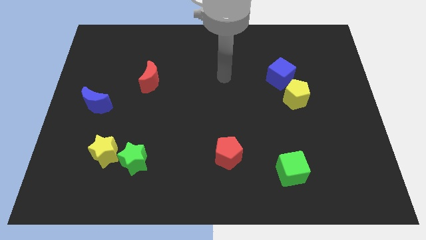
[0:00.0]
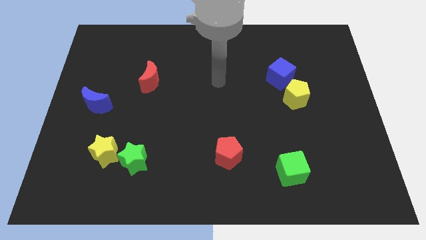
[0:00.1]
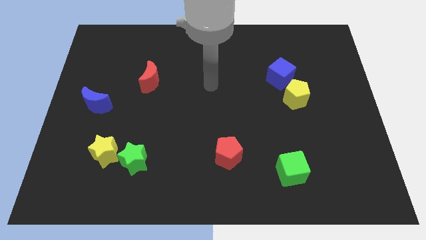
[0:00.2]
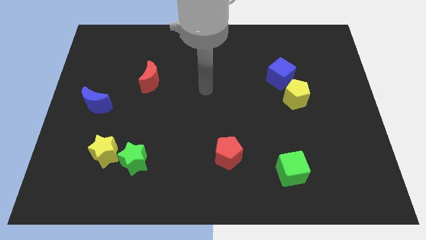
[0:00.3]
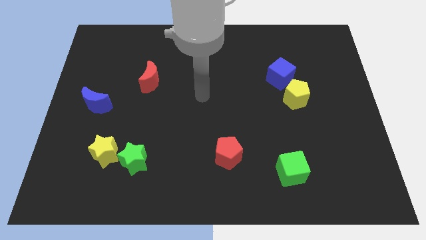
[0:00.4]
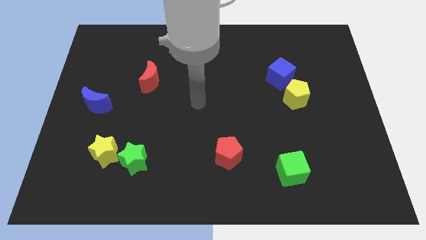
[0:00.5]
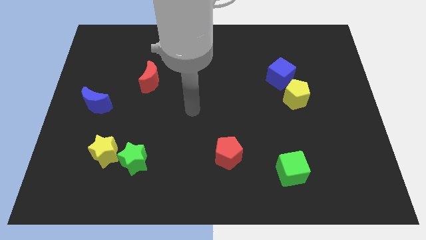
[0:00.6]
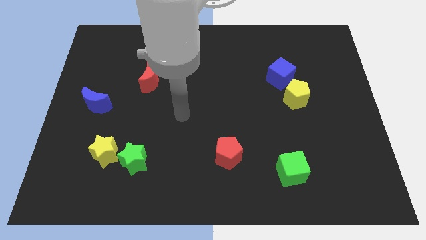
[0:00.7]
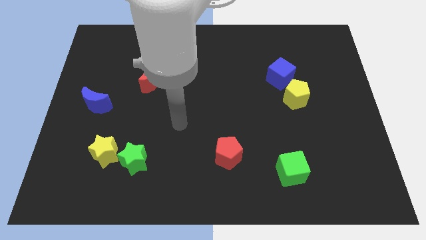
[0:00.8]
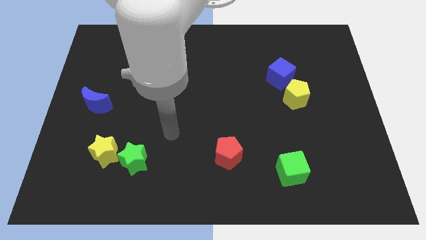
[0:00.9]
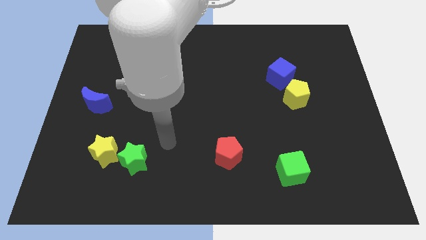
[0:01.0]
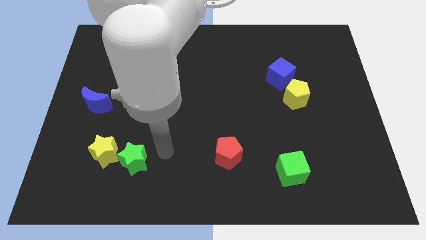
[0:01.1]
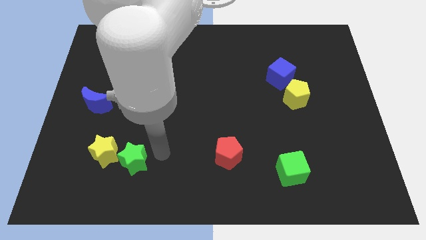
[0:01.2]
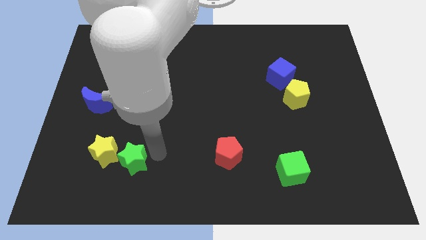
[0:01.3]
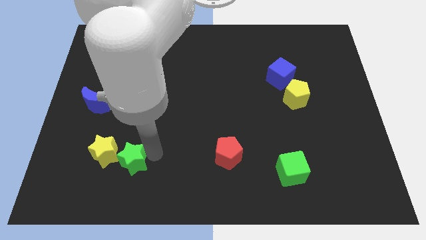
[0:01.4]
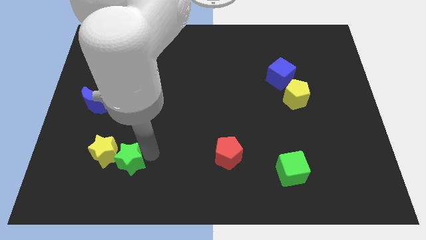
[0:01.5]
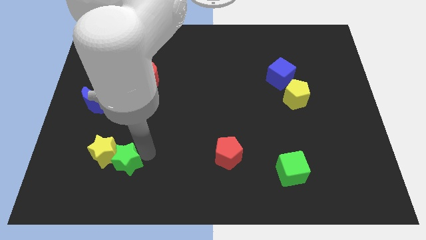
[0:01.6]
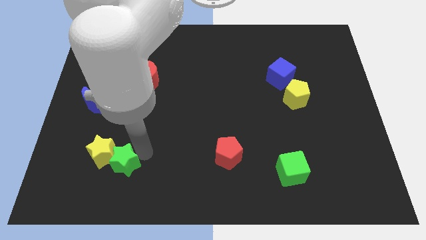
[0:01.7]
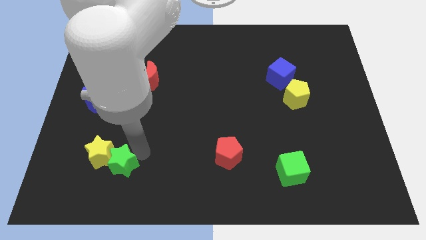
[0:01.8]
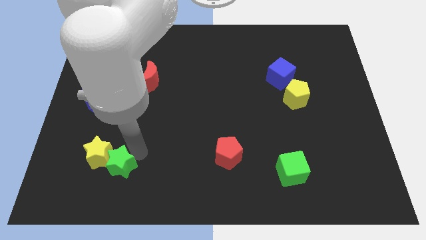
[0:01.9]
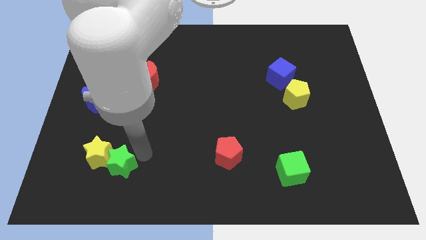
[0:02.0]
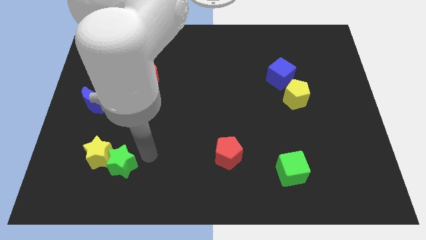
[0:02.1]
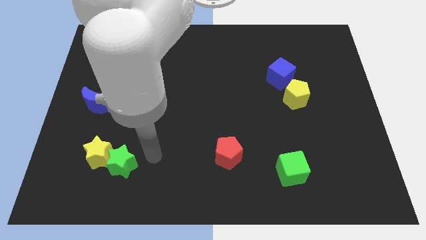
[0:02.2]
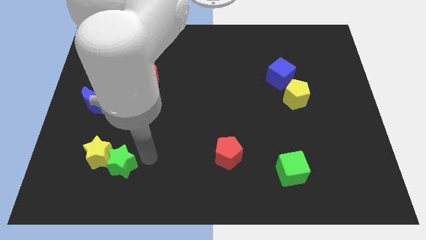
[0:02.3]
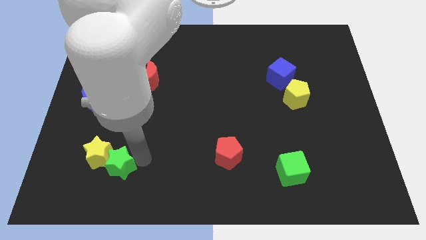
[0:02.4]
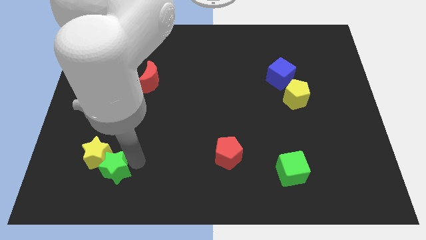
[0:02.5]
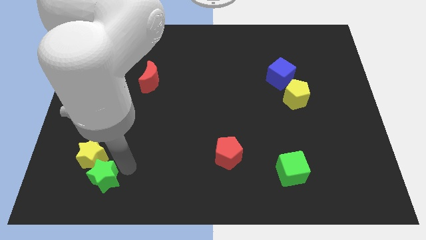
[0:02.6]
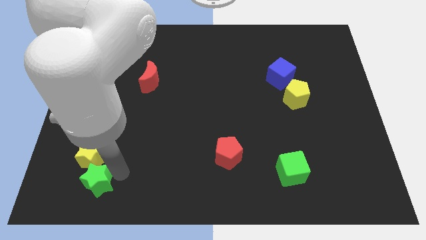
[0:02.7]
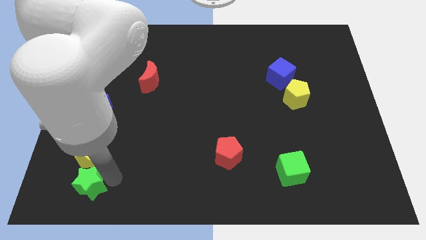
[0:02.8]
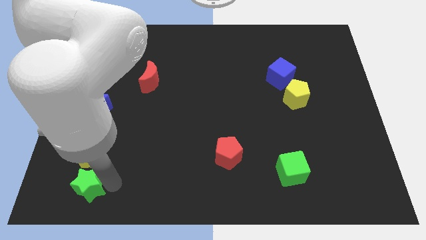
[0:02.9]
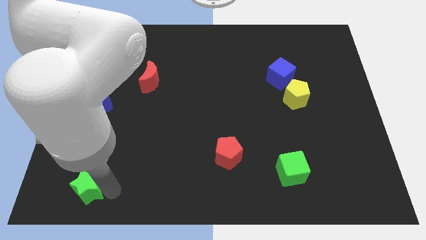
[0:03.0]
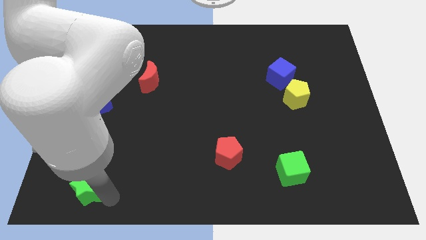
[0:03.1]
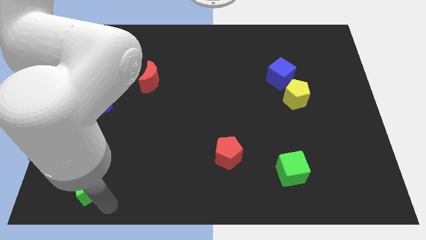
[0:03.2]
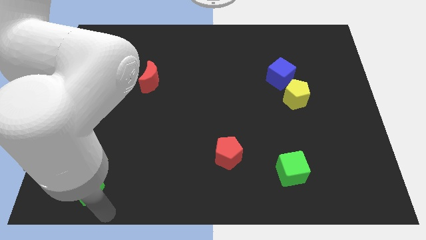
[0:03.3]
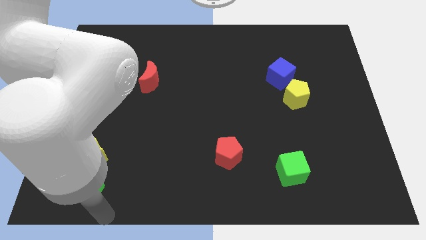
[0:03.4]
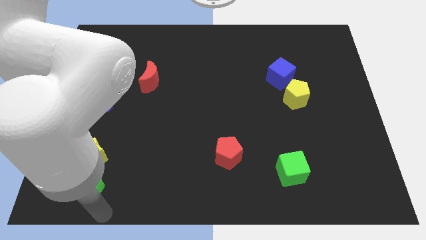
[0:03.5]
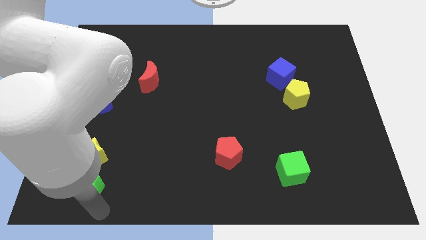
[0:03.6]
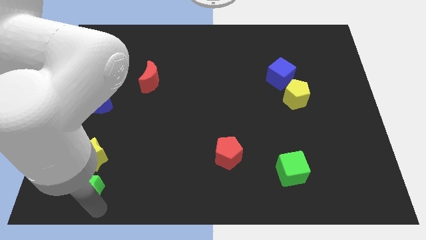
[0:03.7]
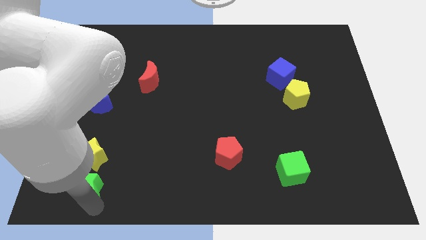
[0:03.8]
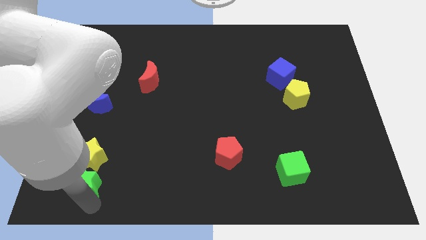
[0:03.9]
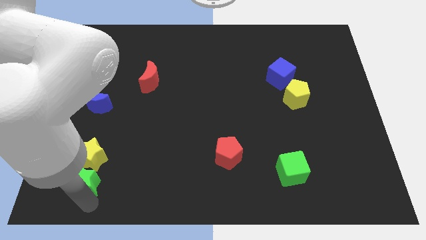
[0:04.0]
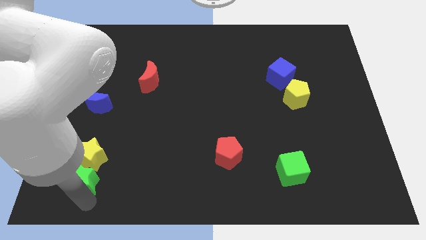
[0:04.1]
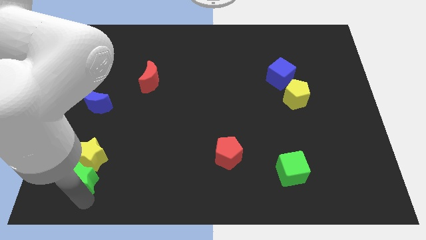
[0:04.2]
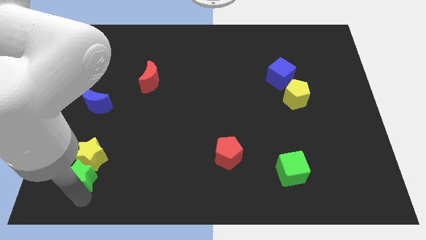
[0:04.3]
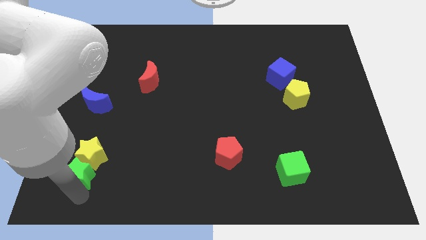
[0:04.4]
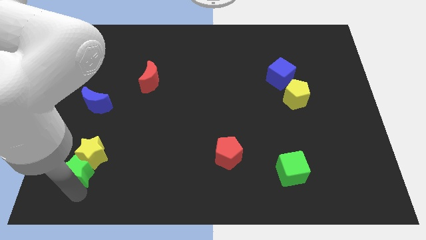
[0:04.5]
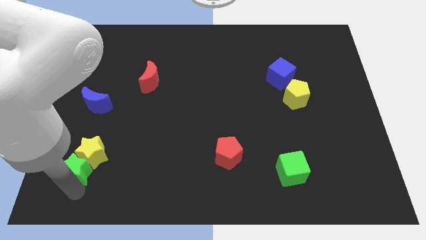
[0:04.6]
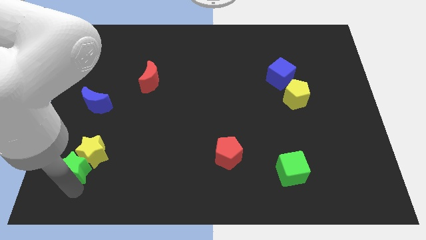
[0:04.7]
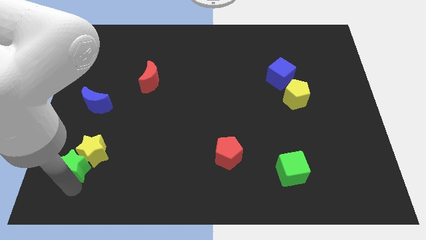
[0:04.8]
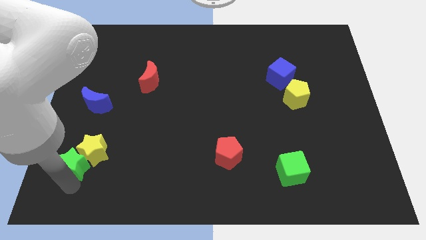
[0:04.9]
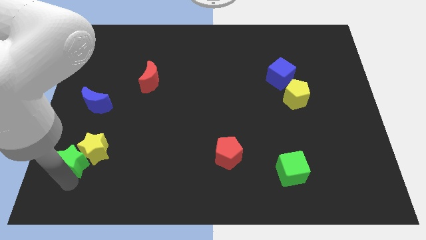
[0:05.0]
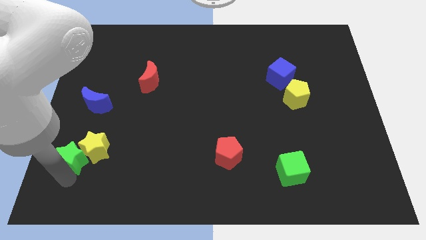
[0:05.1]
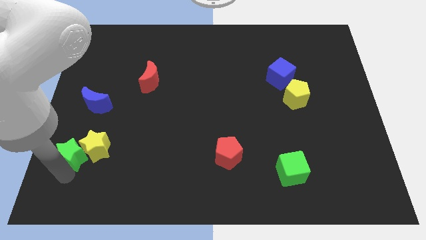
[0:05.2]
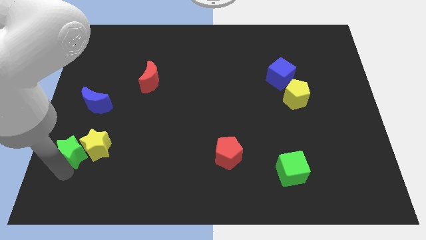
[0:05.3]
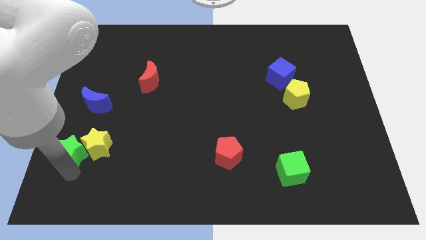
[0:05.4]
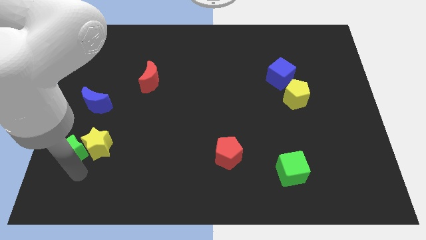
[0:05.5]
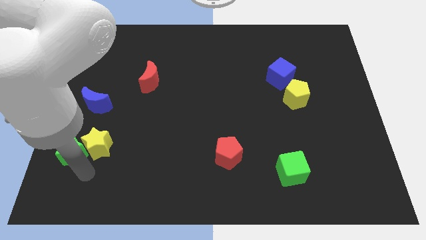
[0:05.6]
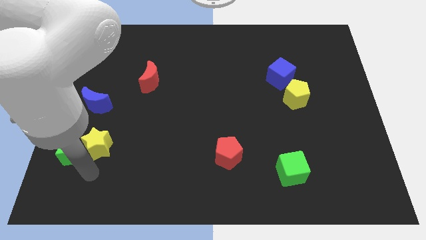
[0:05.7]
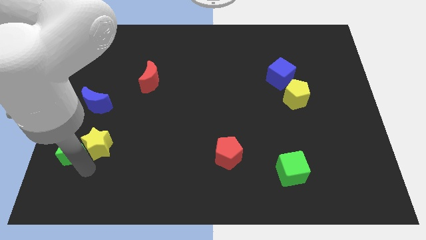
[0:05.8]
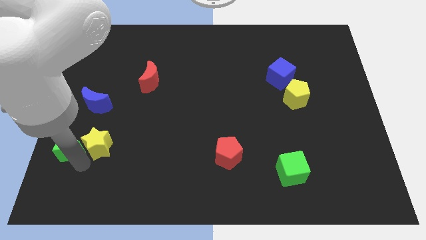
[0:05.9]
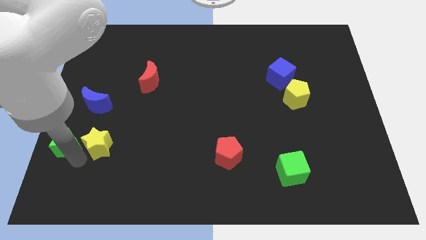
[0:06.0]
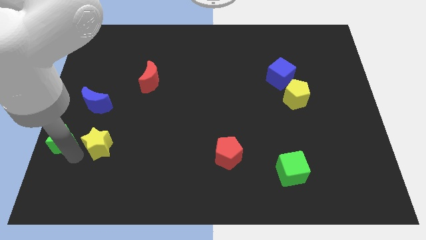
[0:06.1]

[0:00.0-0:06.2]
move the green star to the left side of the board

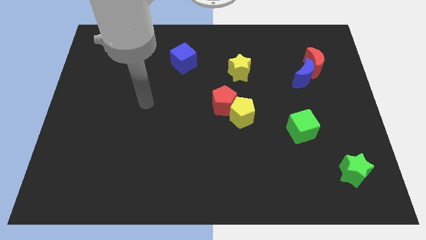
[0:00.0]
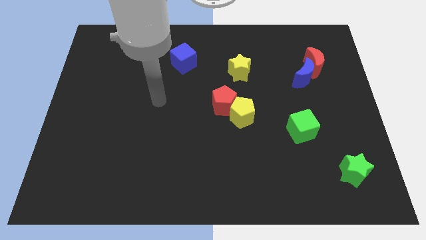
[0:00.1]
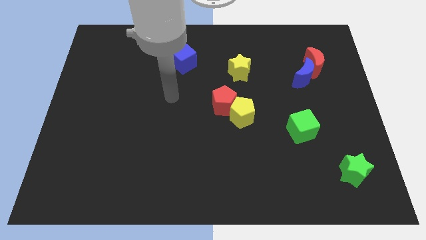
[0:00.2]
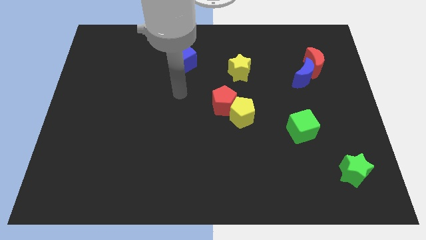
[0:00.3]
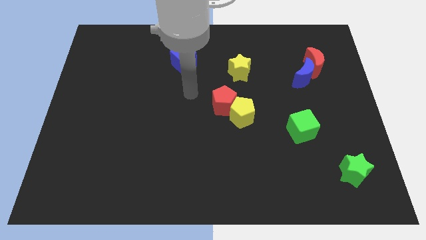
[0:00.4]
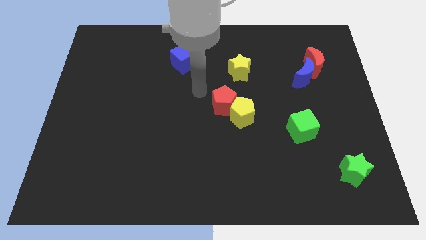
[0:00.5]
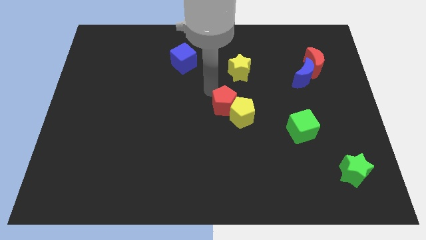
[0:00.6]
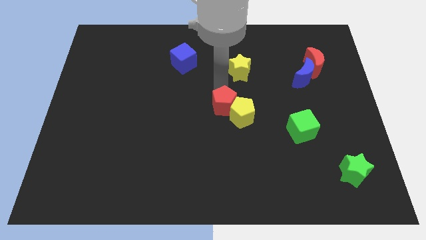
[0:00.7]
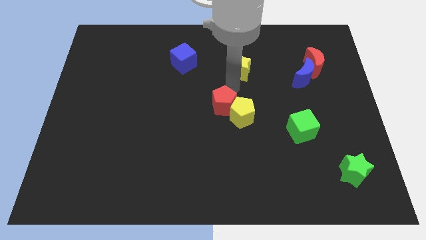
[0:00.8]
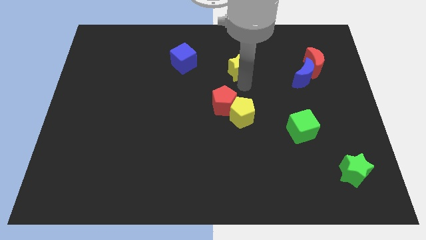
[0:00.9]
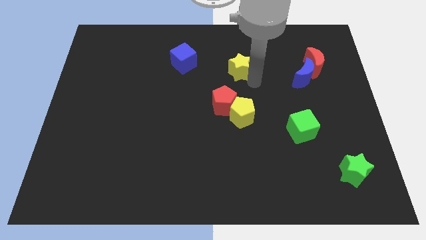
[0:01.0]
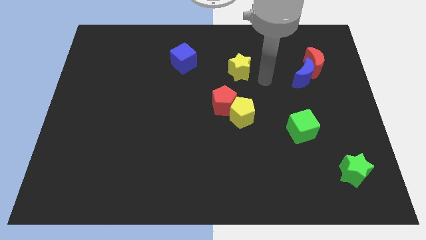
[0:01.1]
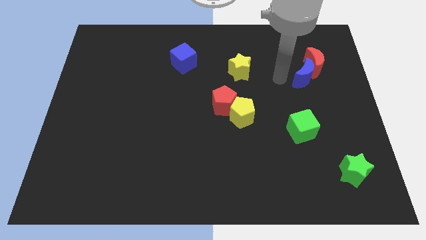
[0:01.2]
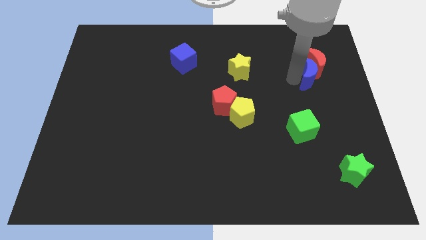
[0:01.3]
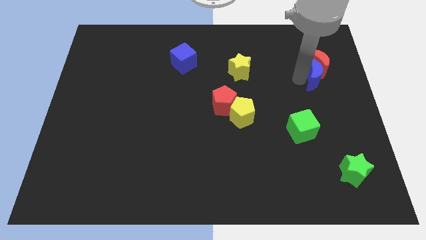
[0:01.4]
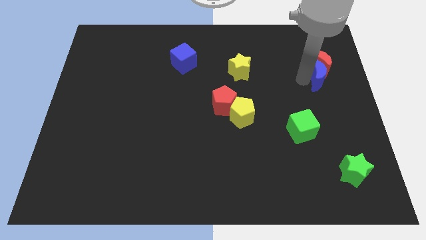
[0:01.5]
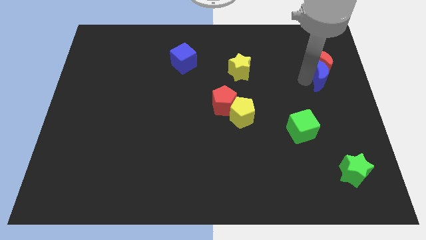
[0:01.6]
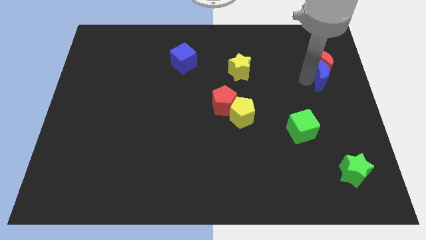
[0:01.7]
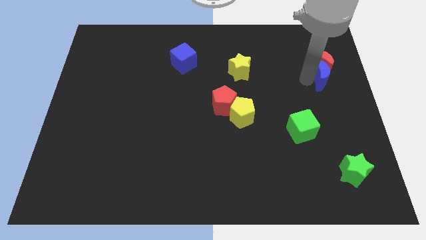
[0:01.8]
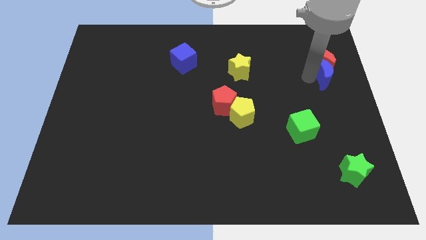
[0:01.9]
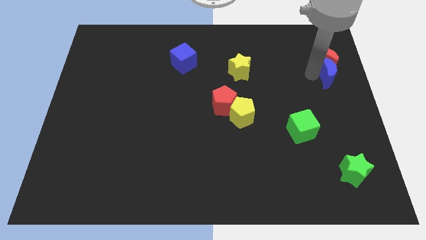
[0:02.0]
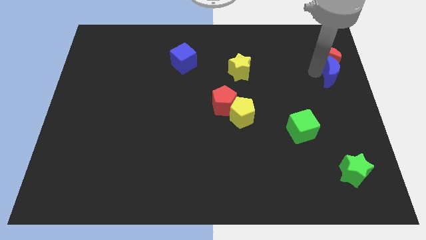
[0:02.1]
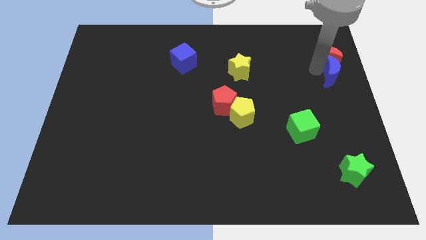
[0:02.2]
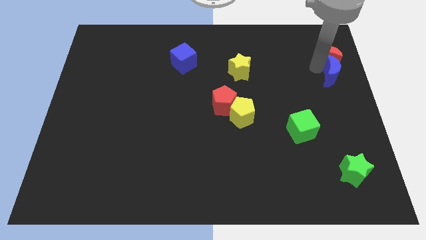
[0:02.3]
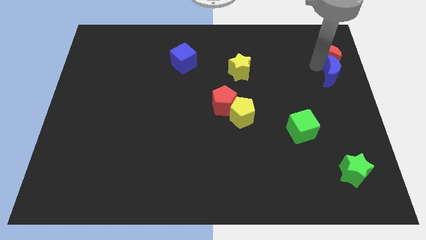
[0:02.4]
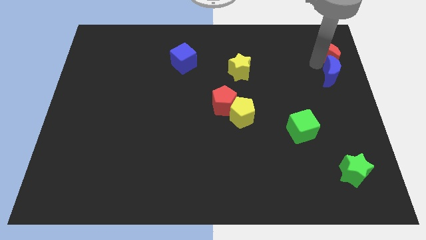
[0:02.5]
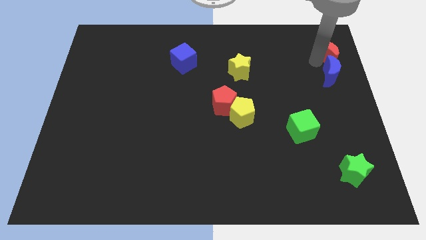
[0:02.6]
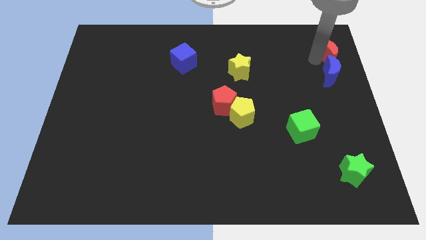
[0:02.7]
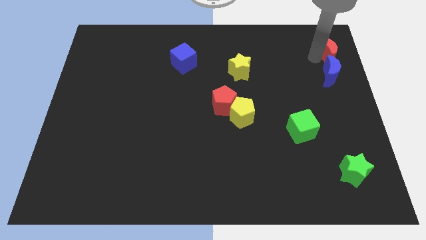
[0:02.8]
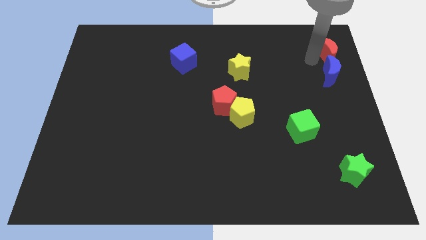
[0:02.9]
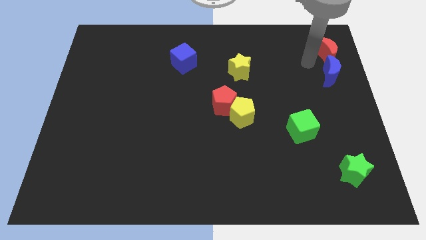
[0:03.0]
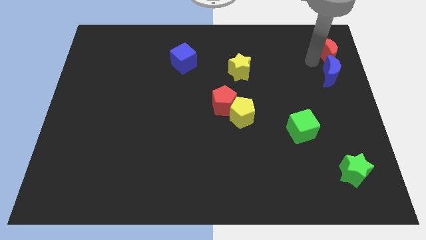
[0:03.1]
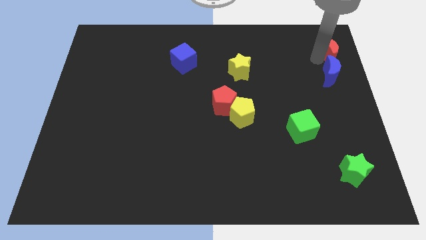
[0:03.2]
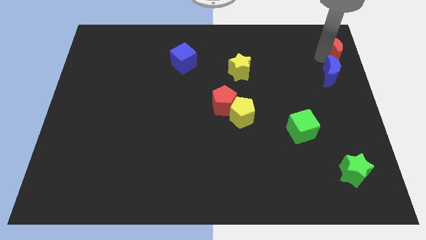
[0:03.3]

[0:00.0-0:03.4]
put the red moon to the upper right corner
